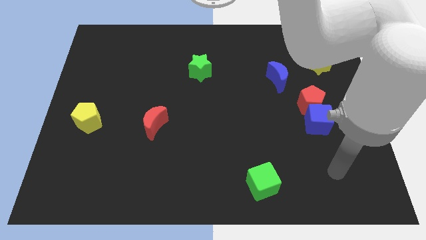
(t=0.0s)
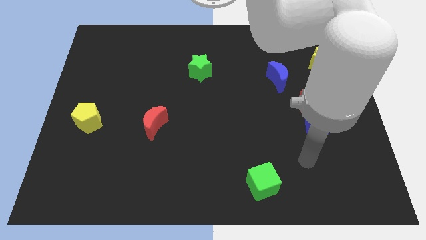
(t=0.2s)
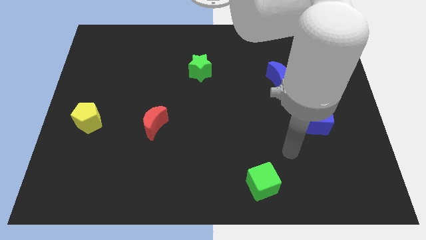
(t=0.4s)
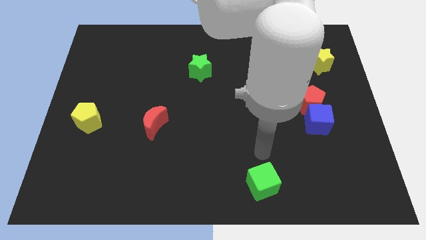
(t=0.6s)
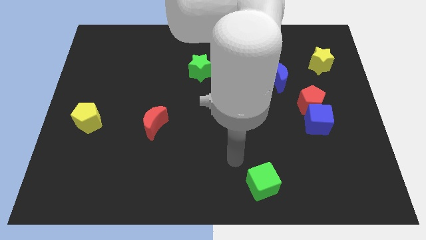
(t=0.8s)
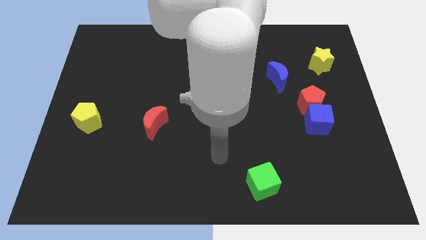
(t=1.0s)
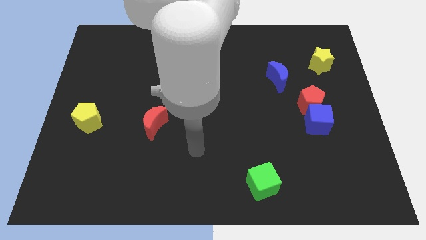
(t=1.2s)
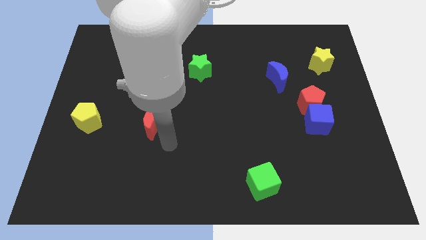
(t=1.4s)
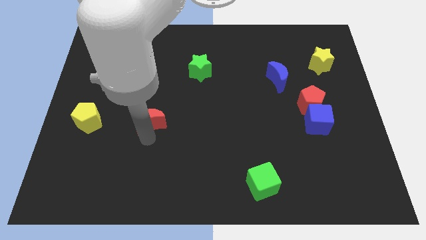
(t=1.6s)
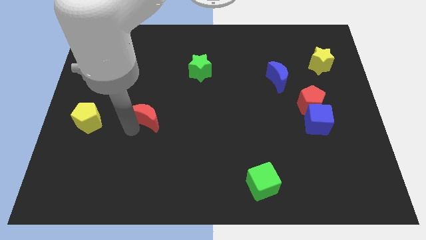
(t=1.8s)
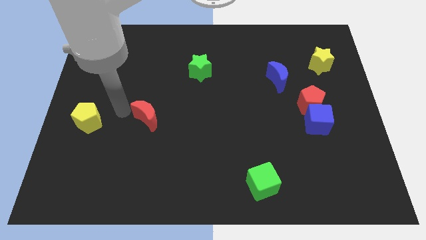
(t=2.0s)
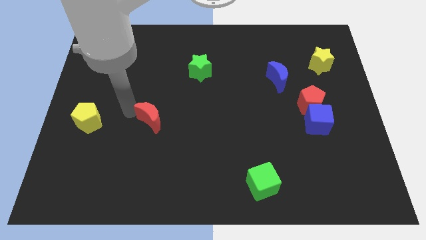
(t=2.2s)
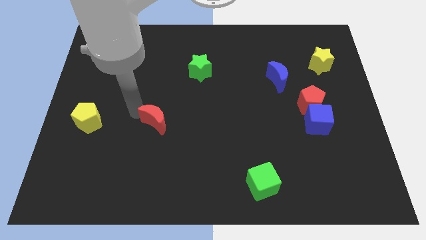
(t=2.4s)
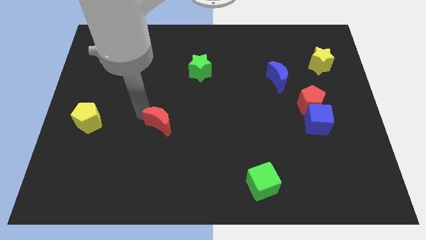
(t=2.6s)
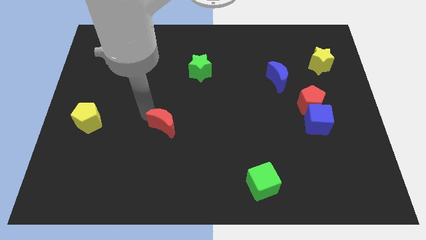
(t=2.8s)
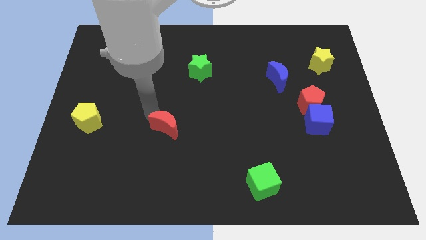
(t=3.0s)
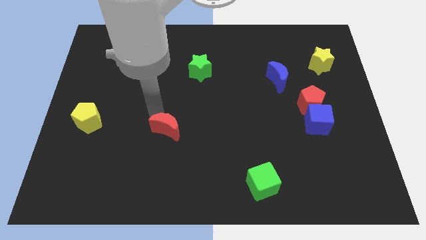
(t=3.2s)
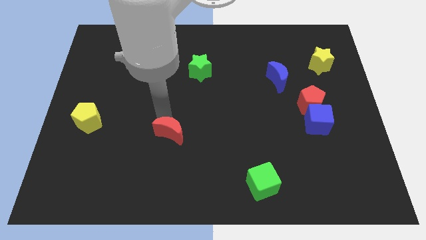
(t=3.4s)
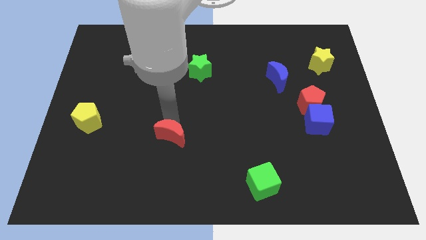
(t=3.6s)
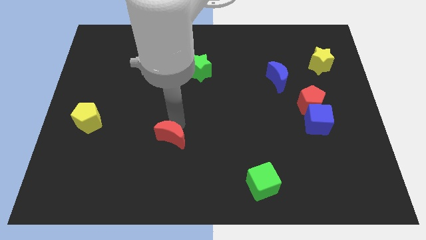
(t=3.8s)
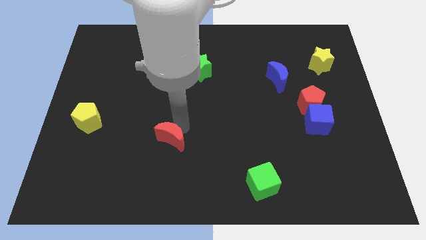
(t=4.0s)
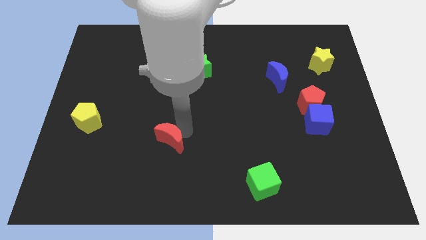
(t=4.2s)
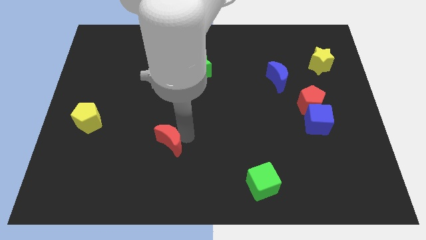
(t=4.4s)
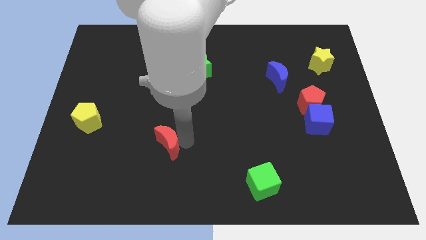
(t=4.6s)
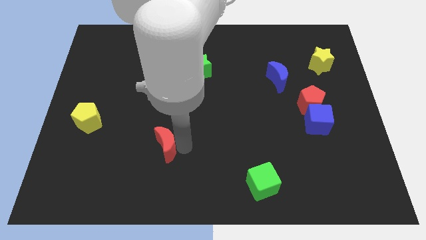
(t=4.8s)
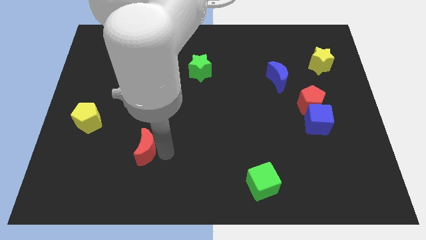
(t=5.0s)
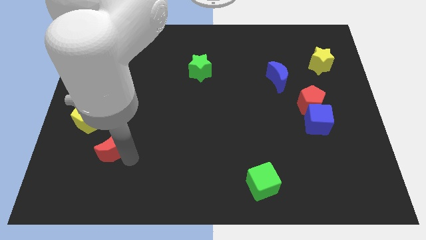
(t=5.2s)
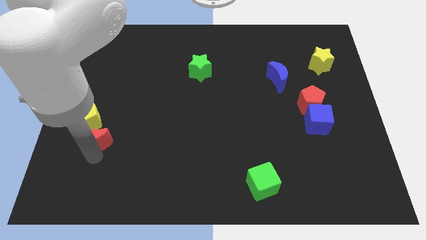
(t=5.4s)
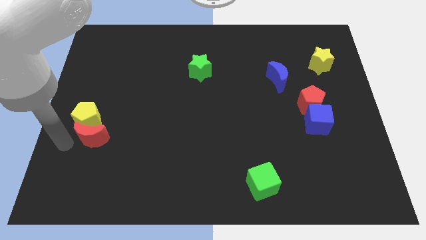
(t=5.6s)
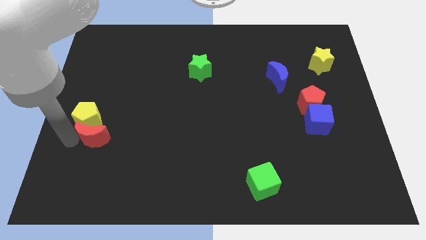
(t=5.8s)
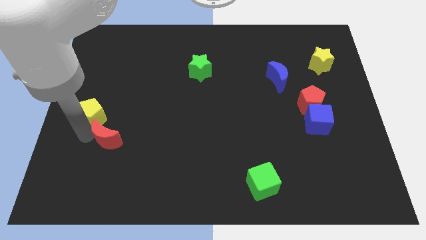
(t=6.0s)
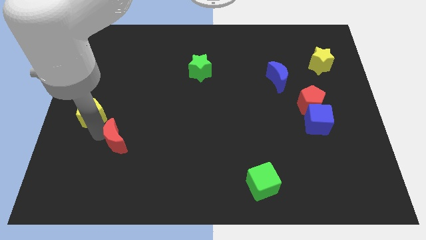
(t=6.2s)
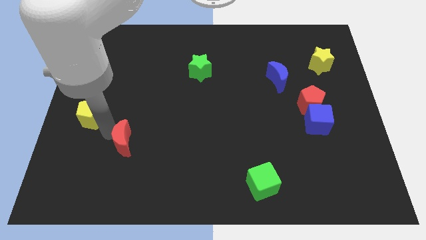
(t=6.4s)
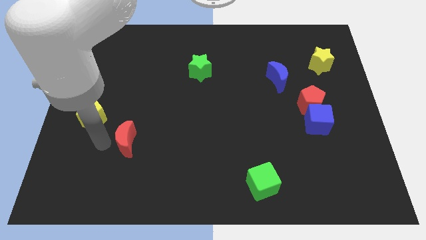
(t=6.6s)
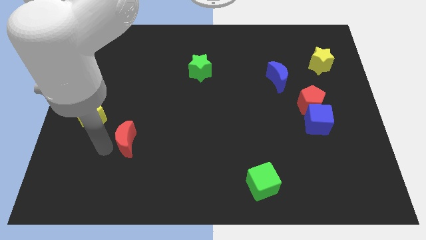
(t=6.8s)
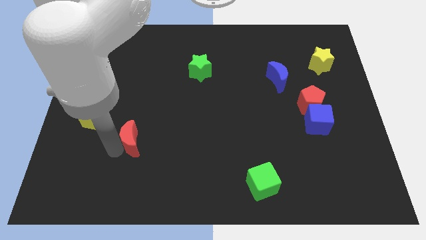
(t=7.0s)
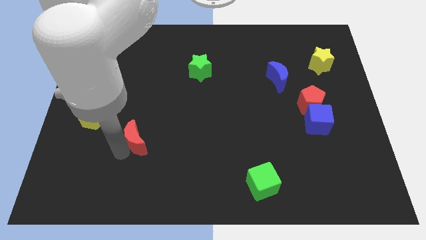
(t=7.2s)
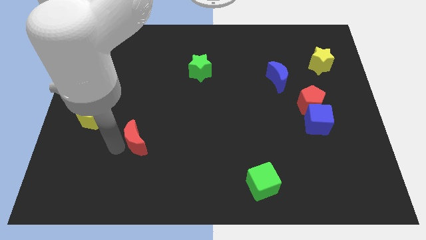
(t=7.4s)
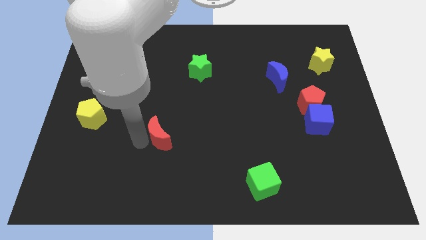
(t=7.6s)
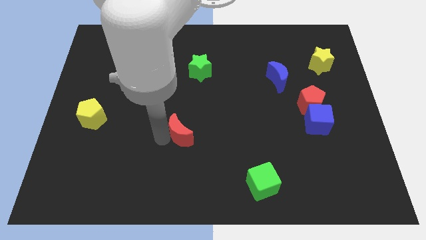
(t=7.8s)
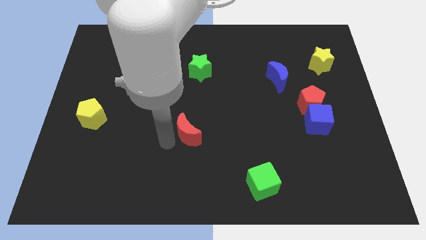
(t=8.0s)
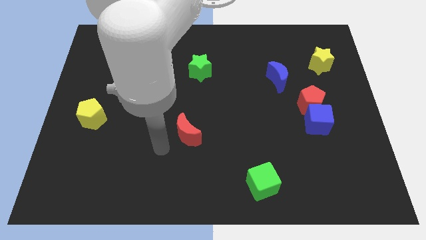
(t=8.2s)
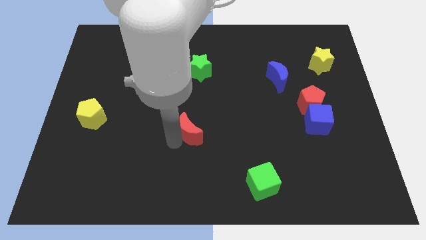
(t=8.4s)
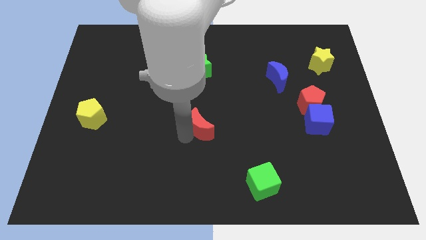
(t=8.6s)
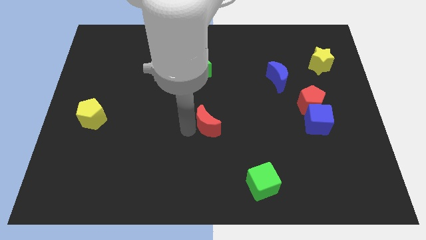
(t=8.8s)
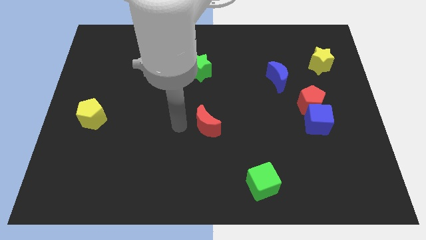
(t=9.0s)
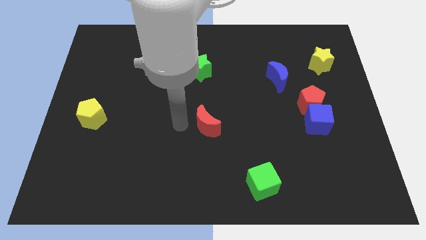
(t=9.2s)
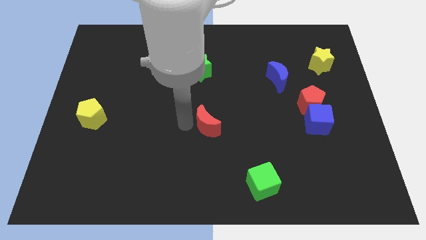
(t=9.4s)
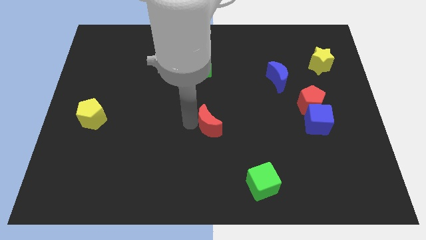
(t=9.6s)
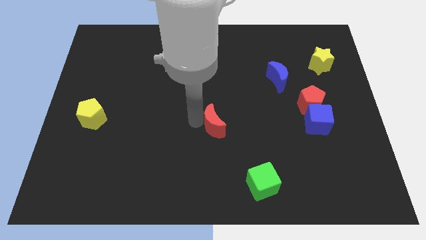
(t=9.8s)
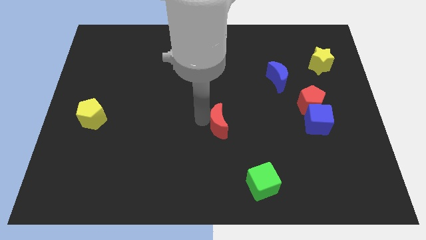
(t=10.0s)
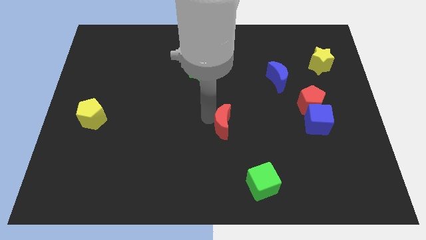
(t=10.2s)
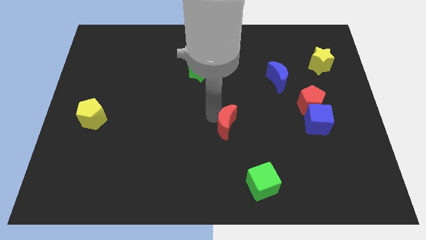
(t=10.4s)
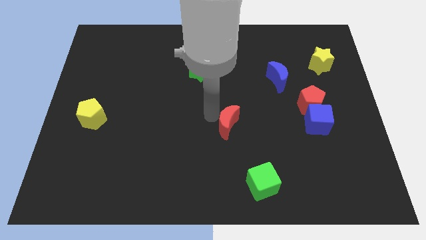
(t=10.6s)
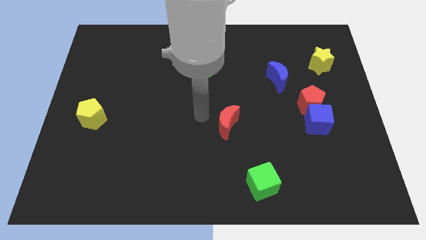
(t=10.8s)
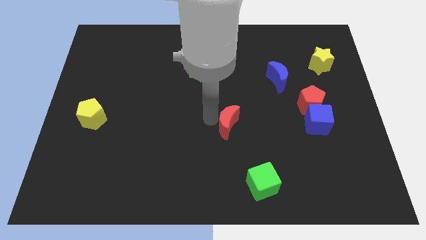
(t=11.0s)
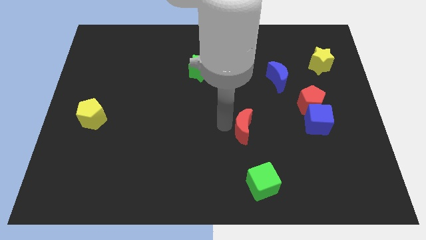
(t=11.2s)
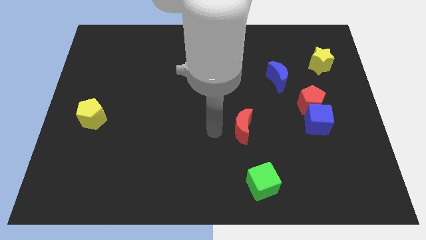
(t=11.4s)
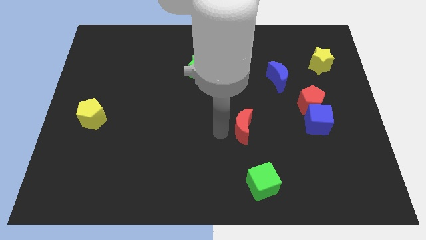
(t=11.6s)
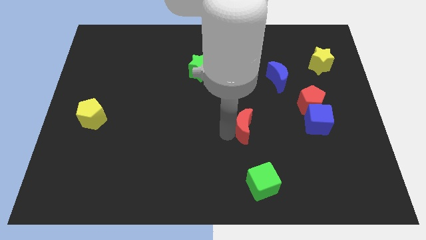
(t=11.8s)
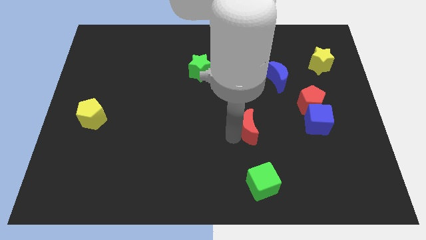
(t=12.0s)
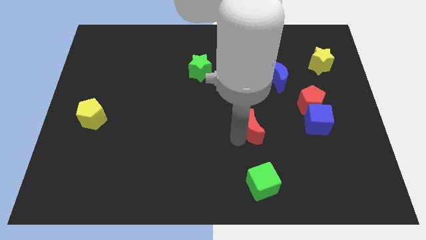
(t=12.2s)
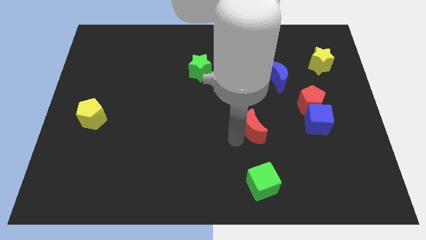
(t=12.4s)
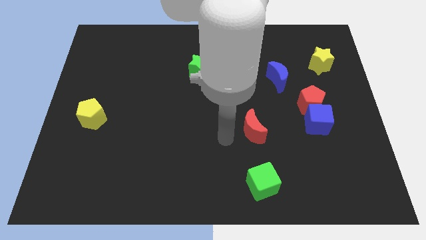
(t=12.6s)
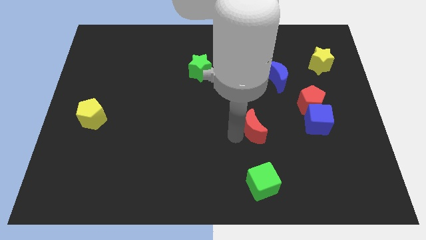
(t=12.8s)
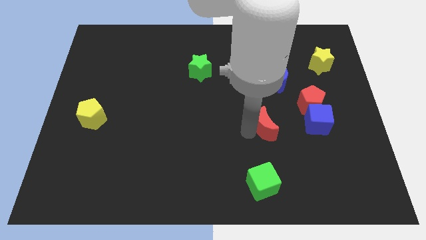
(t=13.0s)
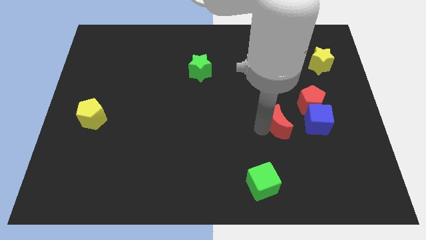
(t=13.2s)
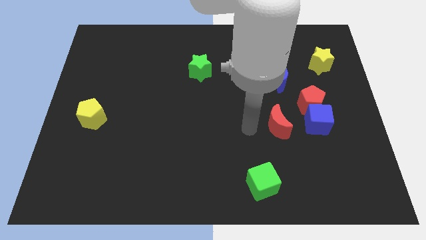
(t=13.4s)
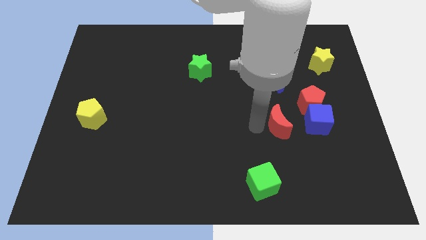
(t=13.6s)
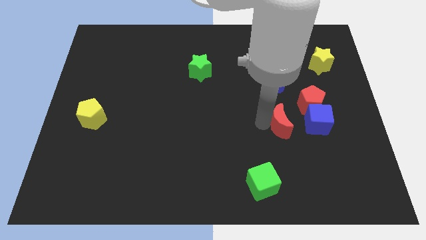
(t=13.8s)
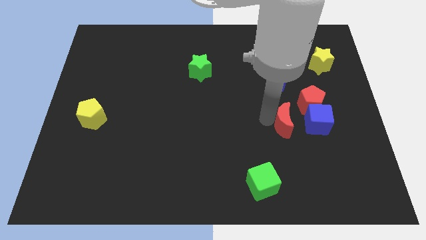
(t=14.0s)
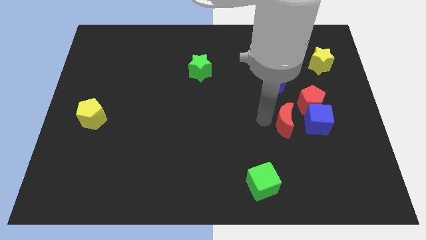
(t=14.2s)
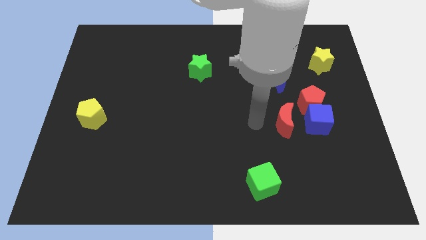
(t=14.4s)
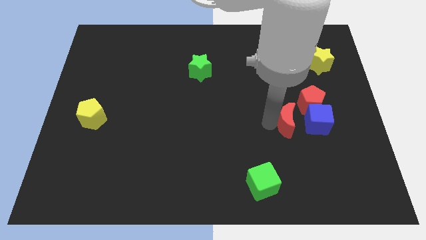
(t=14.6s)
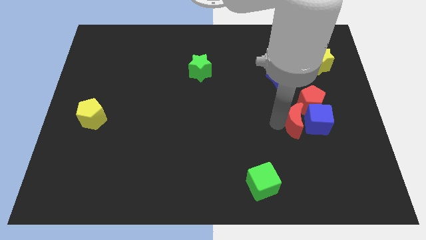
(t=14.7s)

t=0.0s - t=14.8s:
push the red moon towards the blue cube
